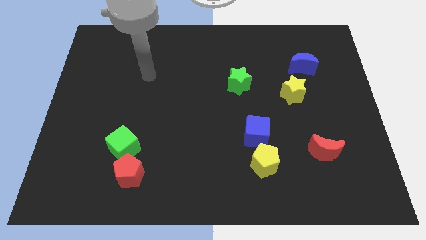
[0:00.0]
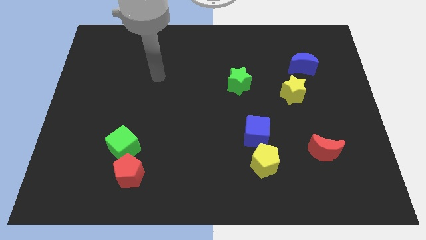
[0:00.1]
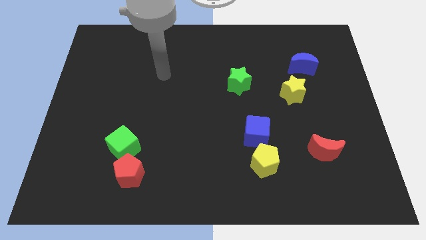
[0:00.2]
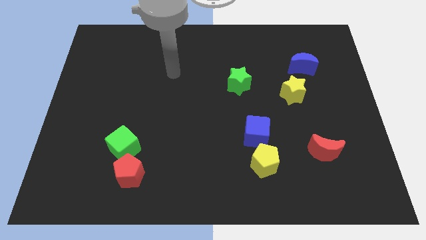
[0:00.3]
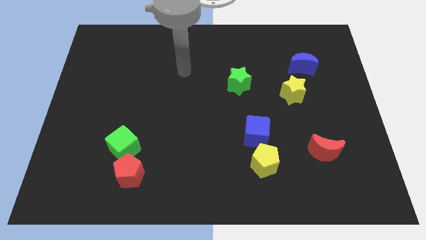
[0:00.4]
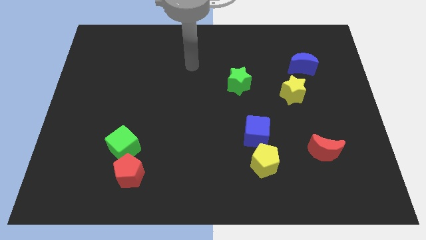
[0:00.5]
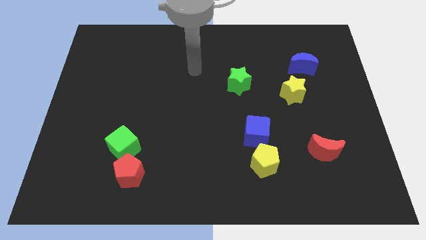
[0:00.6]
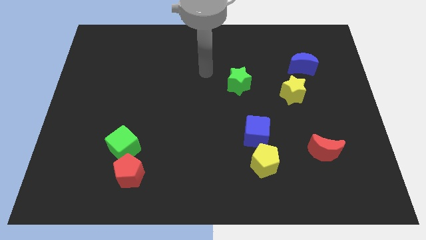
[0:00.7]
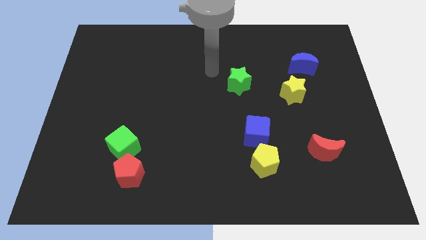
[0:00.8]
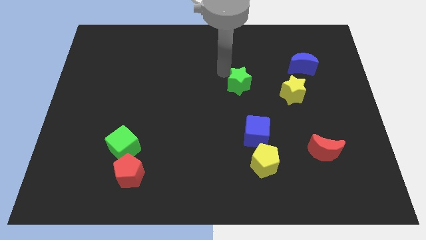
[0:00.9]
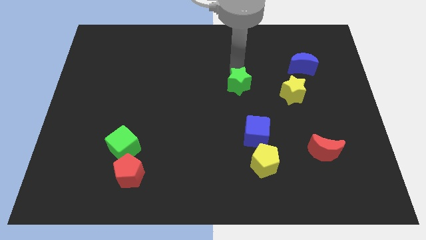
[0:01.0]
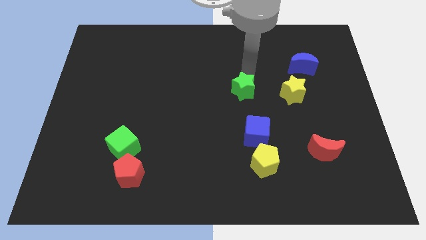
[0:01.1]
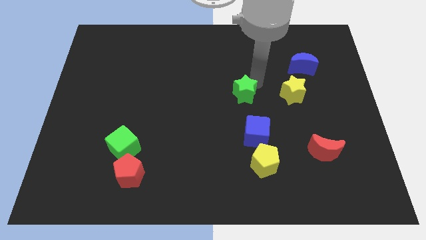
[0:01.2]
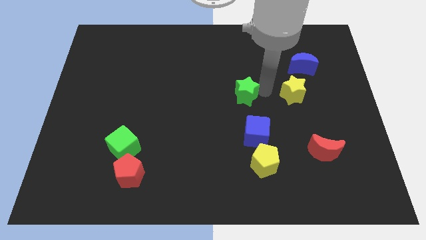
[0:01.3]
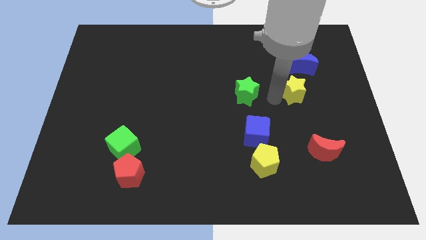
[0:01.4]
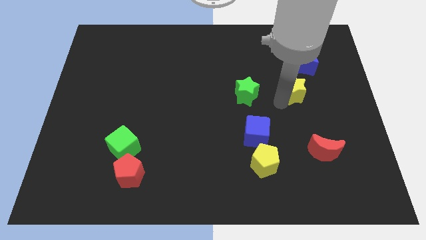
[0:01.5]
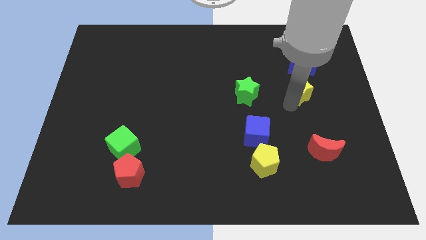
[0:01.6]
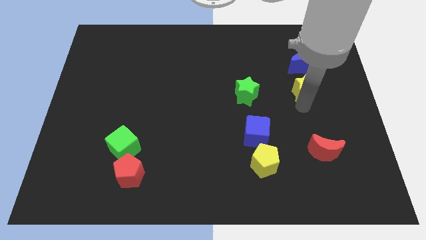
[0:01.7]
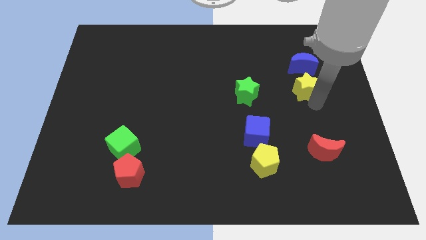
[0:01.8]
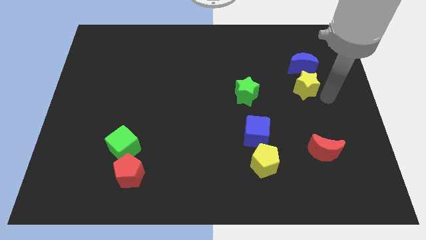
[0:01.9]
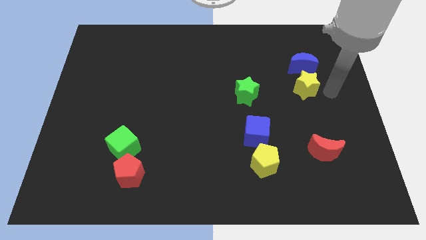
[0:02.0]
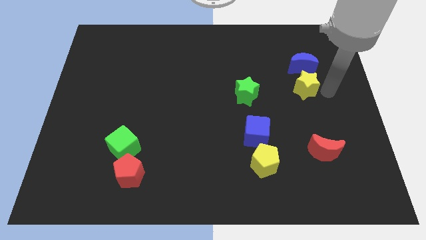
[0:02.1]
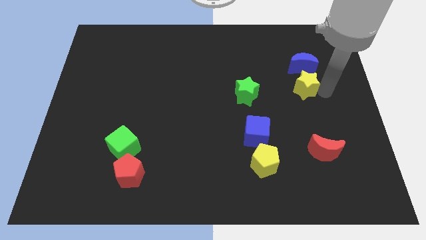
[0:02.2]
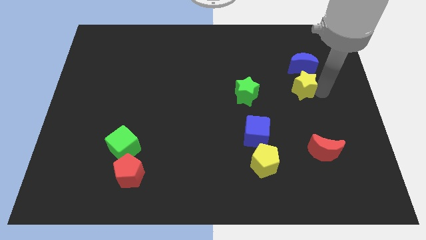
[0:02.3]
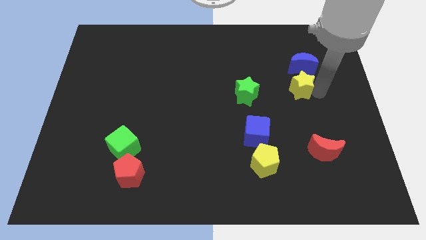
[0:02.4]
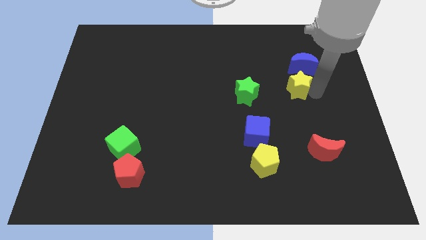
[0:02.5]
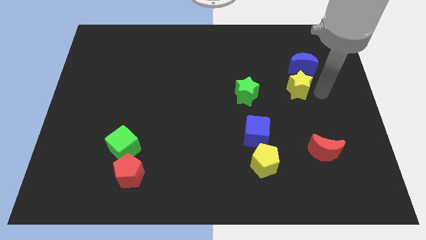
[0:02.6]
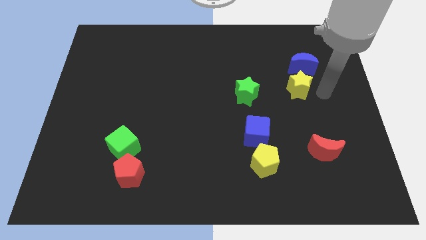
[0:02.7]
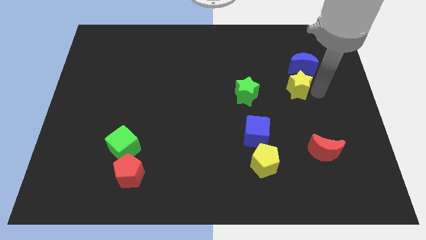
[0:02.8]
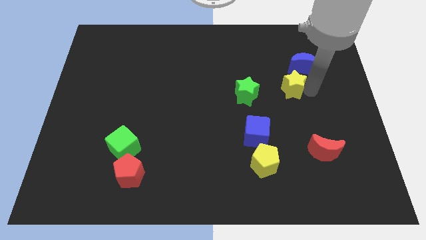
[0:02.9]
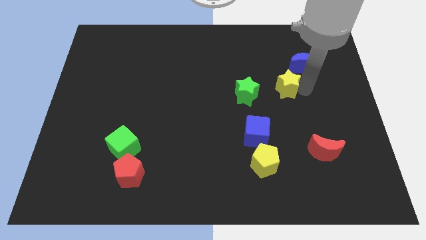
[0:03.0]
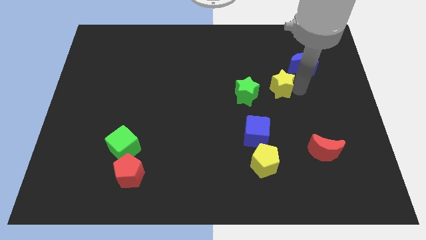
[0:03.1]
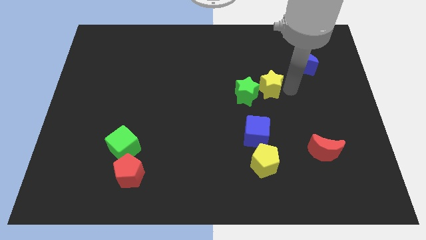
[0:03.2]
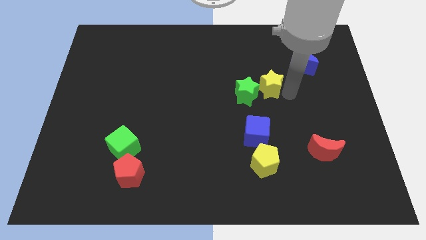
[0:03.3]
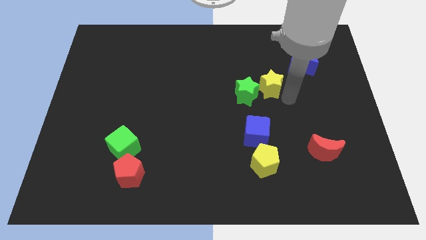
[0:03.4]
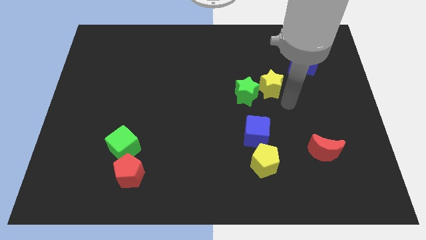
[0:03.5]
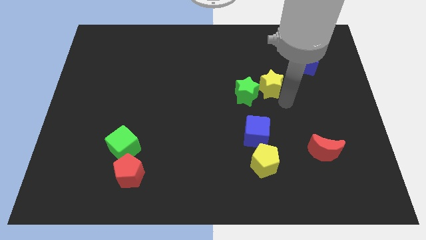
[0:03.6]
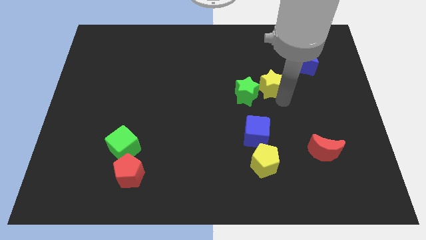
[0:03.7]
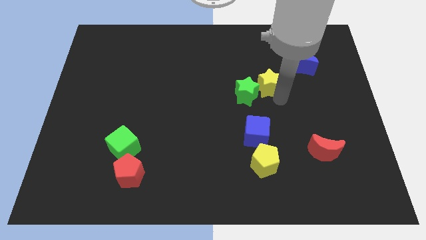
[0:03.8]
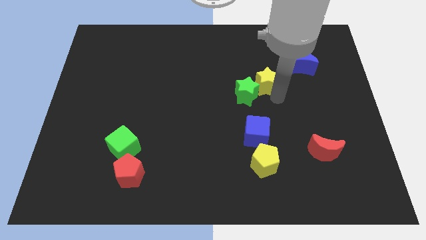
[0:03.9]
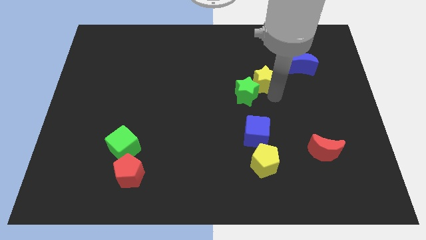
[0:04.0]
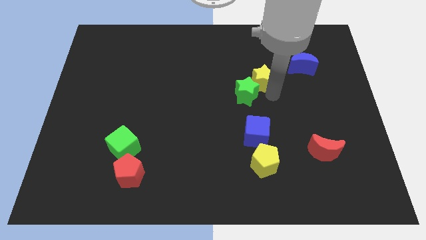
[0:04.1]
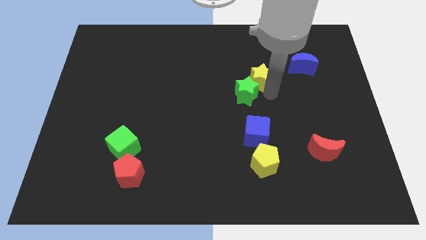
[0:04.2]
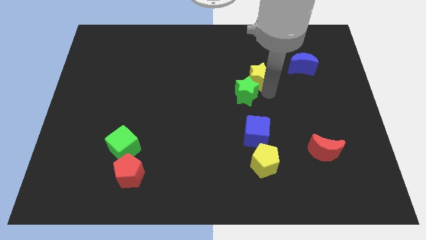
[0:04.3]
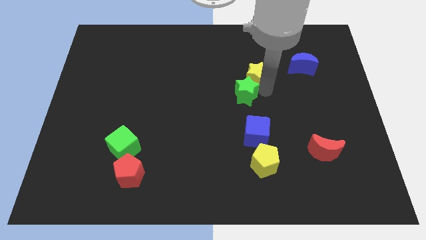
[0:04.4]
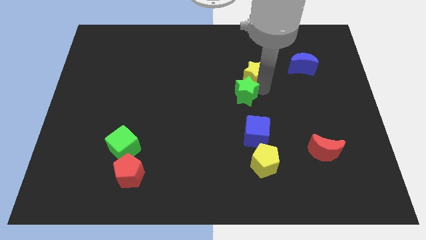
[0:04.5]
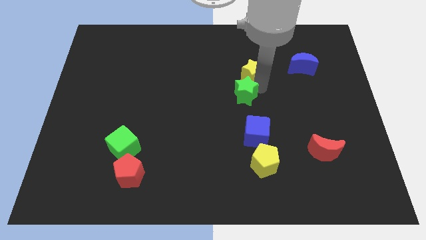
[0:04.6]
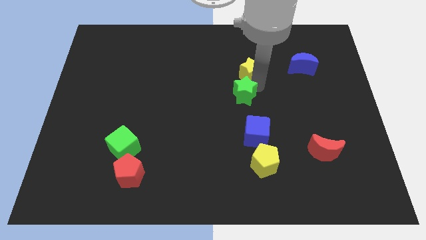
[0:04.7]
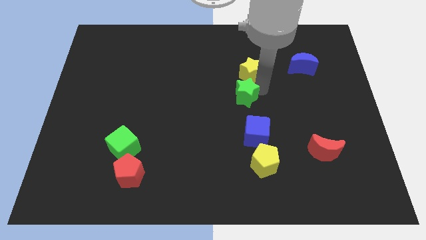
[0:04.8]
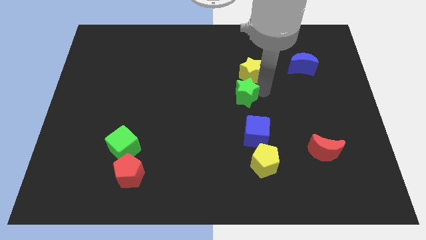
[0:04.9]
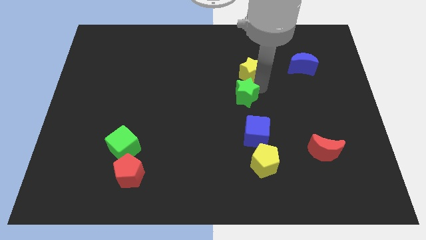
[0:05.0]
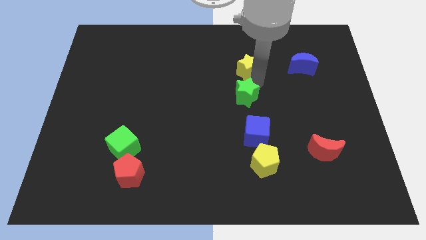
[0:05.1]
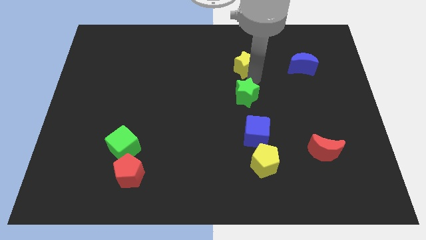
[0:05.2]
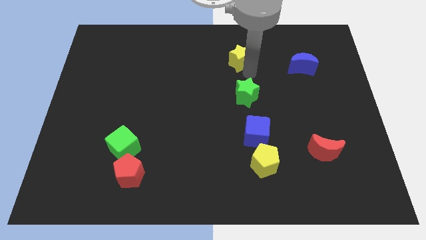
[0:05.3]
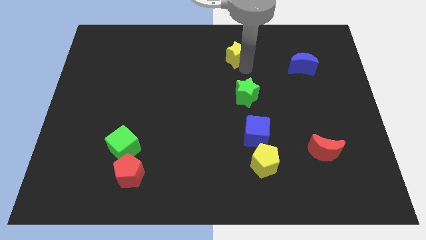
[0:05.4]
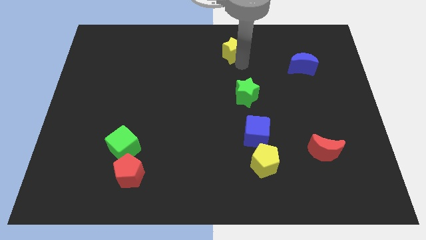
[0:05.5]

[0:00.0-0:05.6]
move the yellow star to the top

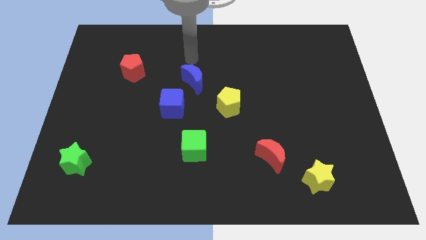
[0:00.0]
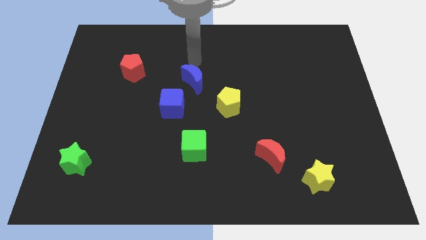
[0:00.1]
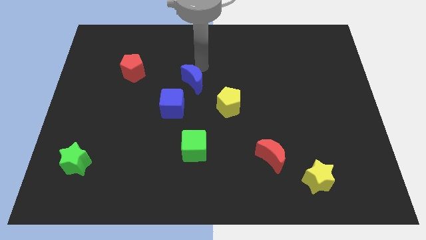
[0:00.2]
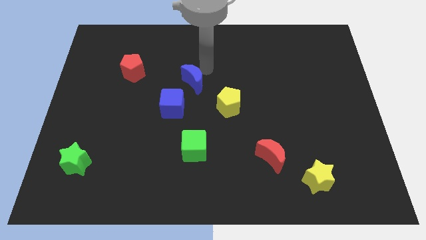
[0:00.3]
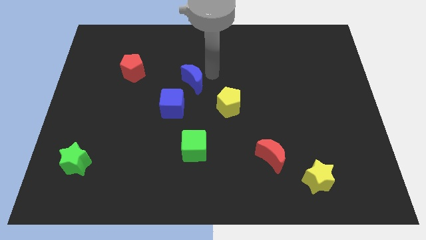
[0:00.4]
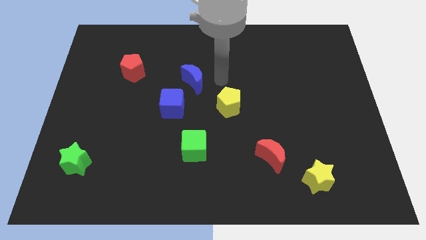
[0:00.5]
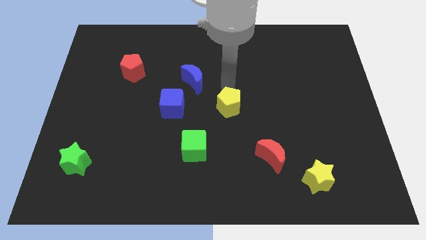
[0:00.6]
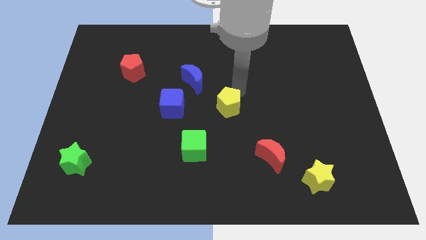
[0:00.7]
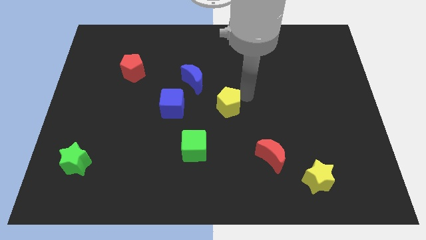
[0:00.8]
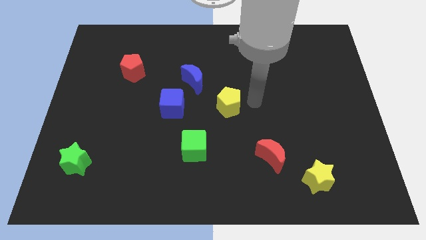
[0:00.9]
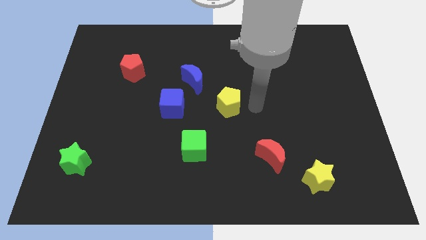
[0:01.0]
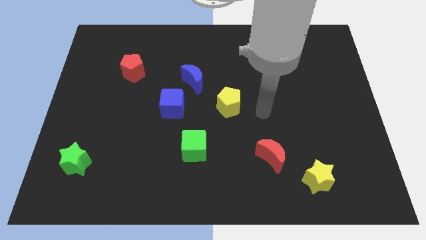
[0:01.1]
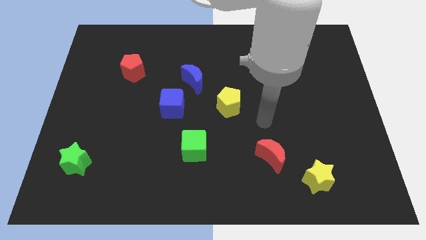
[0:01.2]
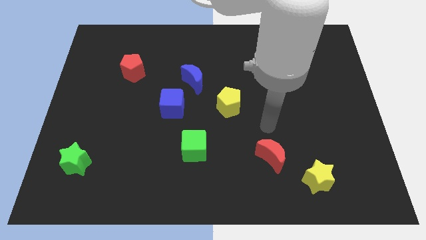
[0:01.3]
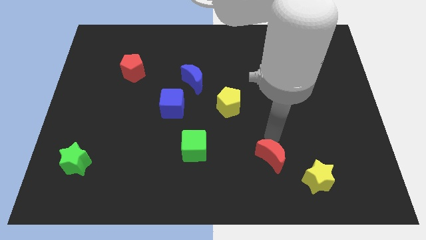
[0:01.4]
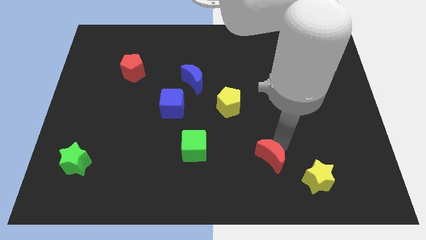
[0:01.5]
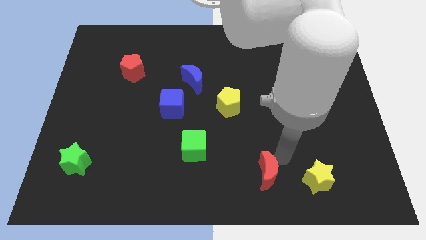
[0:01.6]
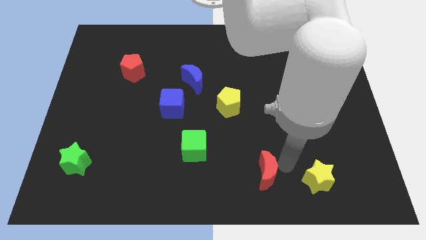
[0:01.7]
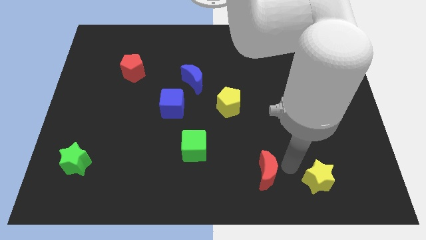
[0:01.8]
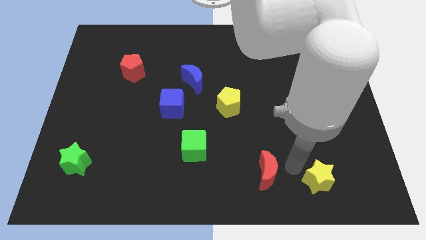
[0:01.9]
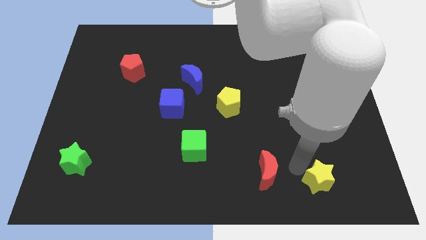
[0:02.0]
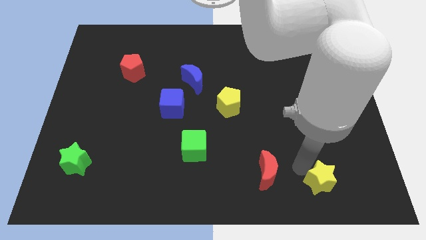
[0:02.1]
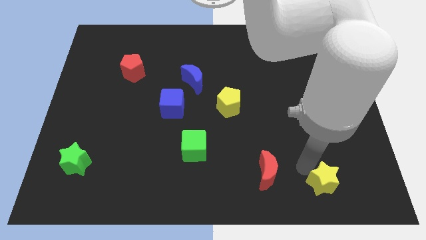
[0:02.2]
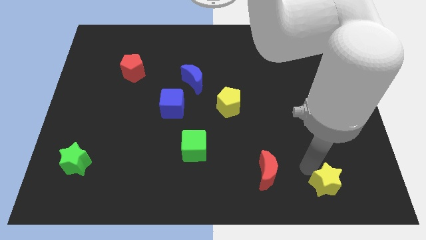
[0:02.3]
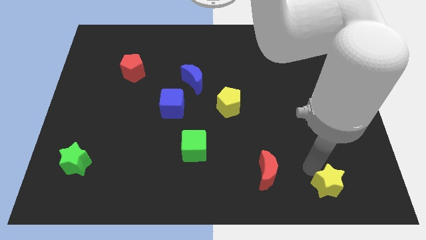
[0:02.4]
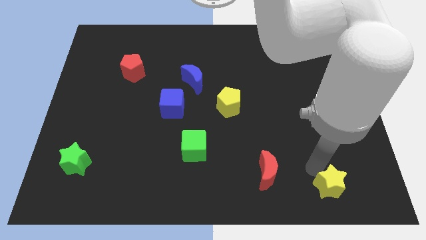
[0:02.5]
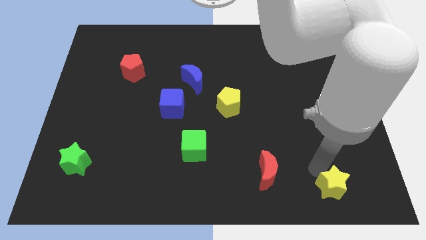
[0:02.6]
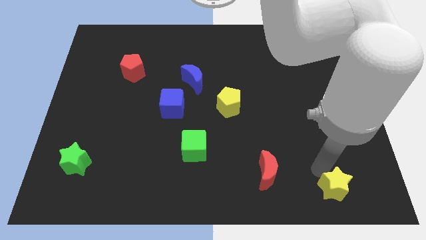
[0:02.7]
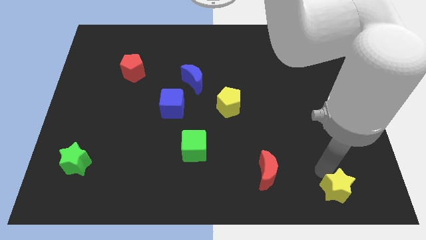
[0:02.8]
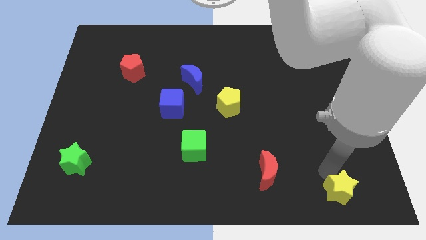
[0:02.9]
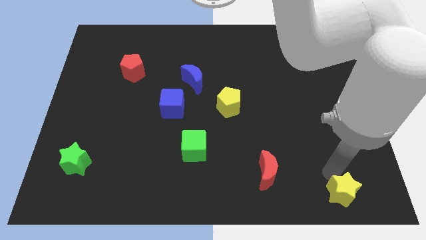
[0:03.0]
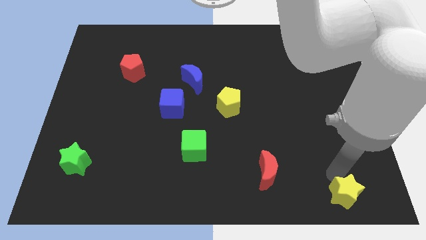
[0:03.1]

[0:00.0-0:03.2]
put the yellow star to the lower right corner
